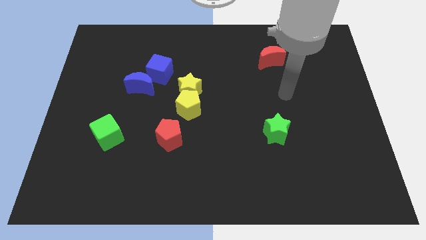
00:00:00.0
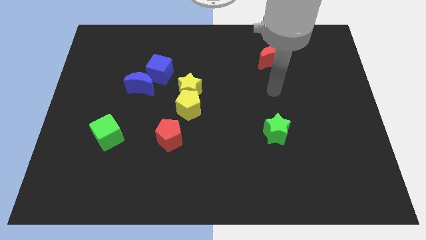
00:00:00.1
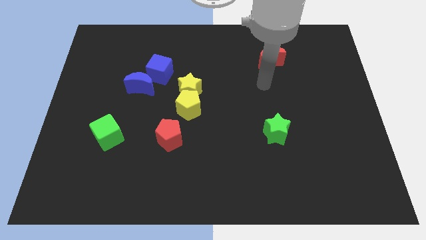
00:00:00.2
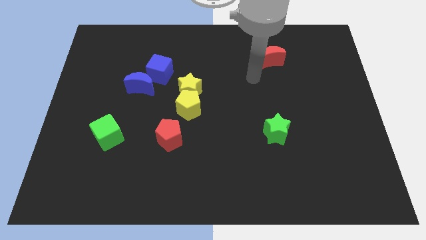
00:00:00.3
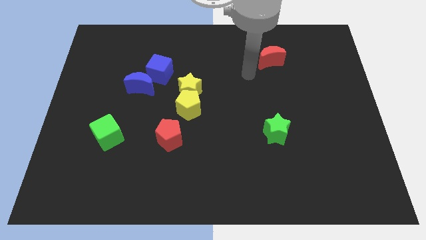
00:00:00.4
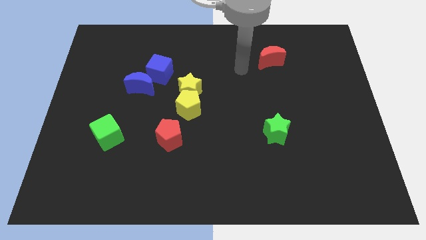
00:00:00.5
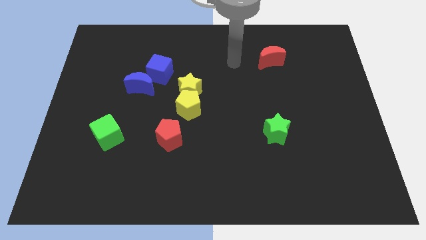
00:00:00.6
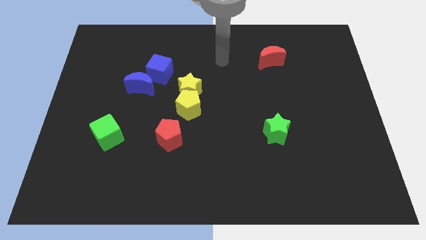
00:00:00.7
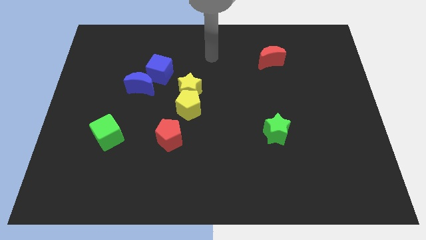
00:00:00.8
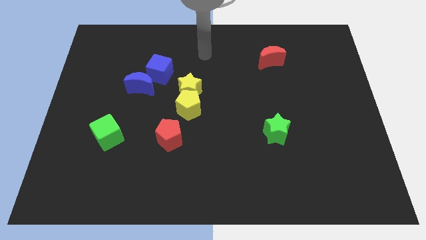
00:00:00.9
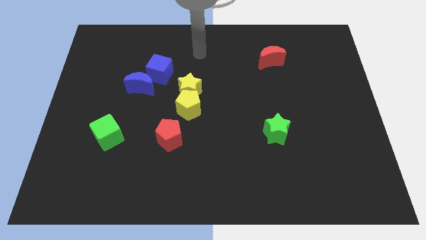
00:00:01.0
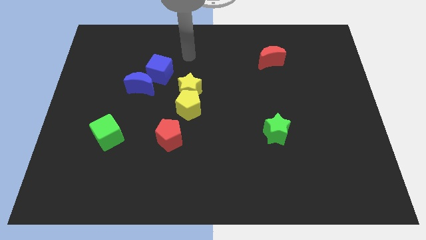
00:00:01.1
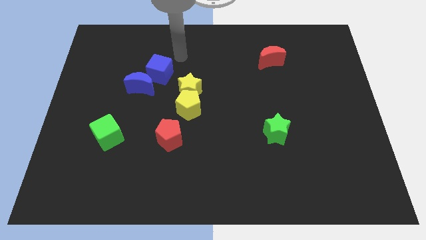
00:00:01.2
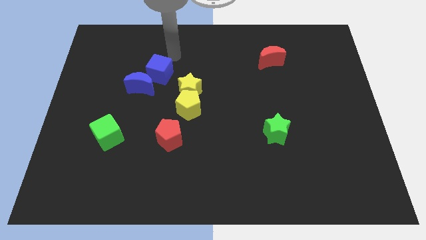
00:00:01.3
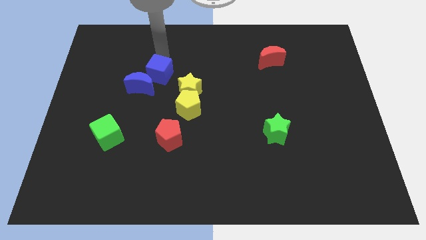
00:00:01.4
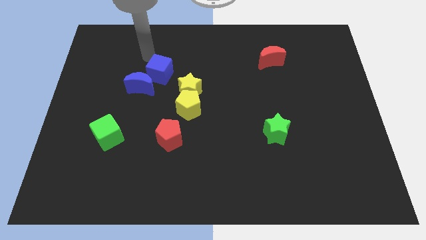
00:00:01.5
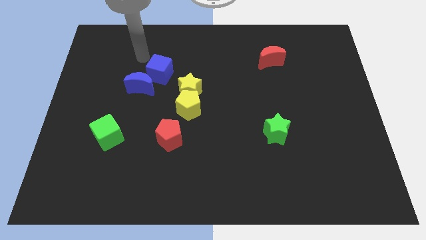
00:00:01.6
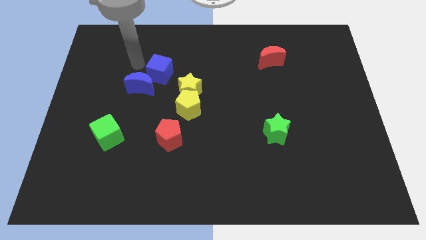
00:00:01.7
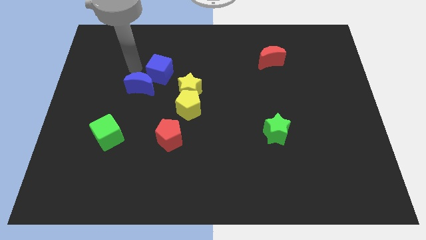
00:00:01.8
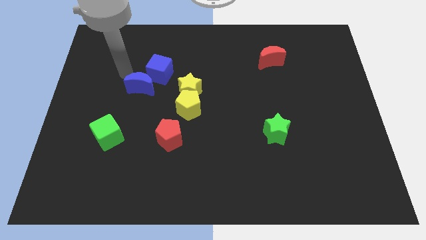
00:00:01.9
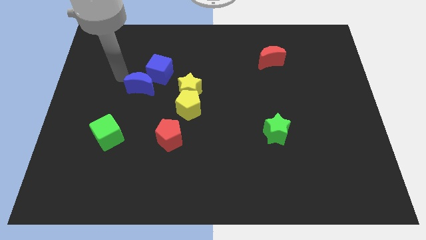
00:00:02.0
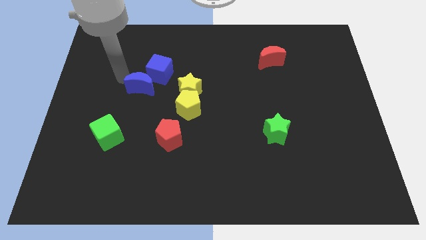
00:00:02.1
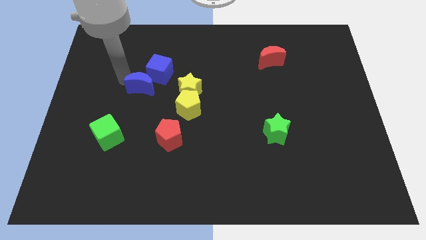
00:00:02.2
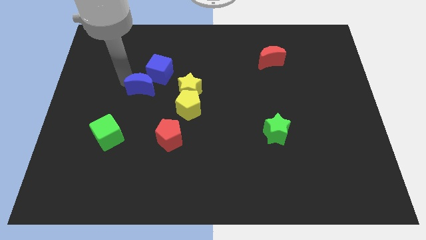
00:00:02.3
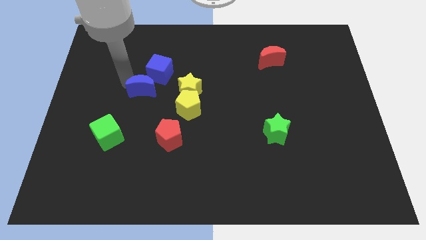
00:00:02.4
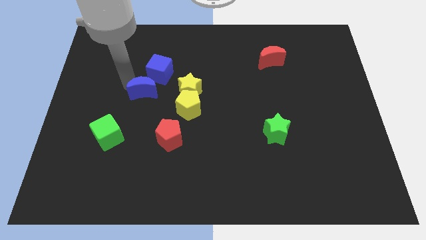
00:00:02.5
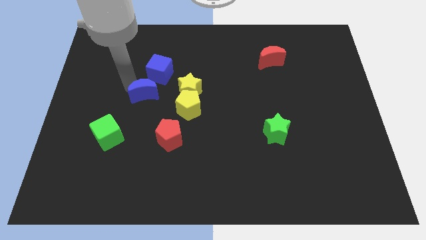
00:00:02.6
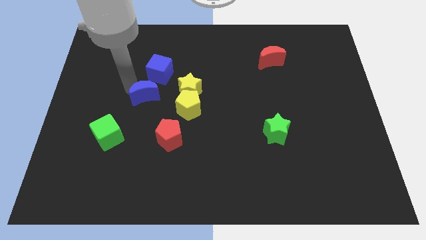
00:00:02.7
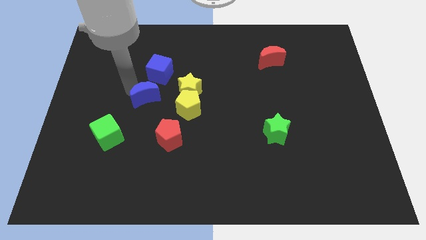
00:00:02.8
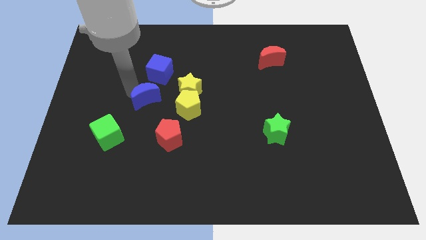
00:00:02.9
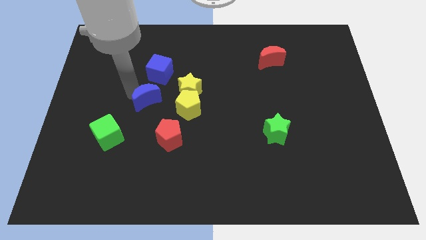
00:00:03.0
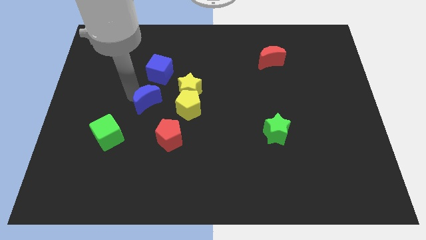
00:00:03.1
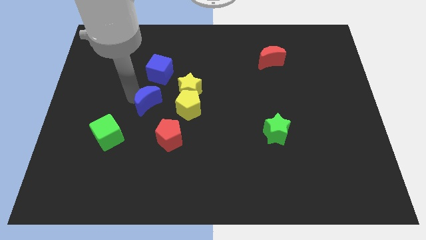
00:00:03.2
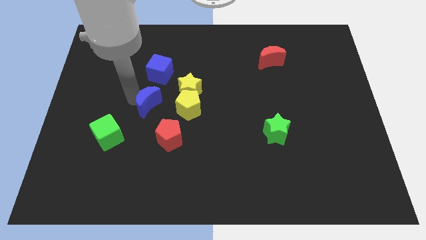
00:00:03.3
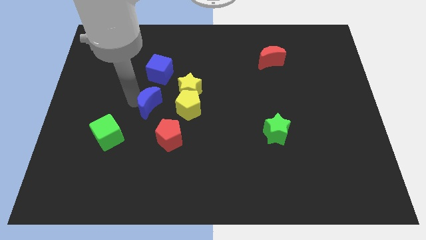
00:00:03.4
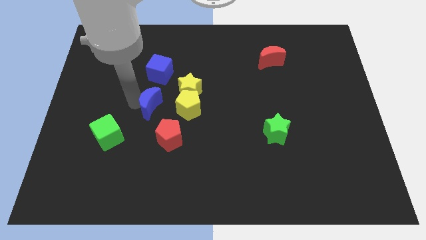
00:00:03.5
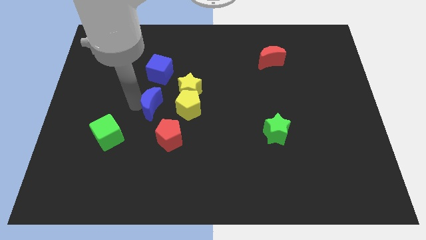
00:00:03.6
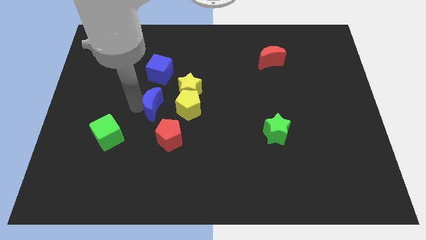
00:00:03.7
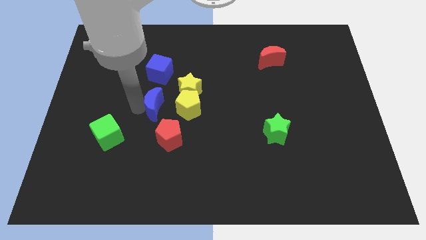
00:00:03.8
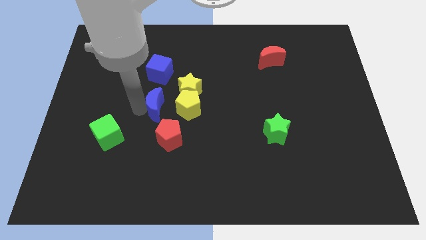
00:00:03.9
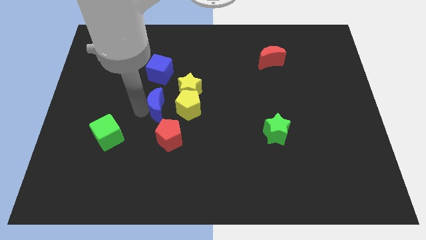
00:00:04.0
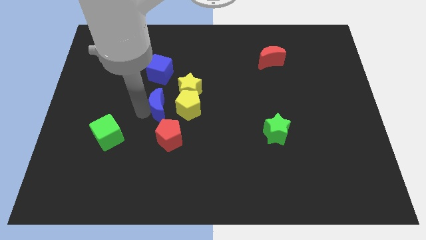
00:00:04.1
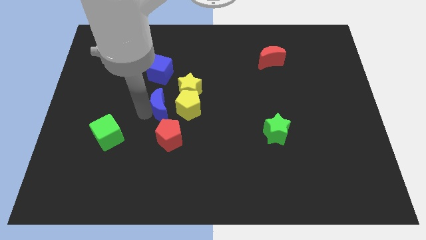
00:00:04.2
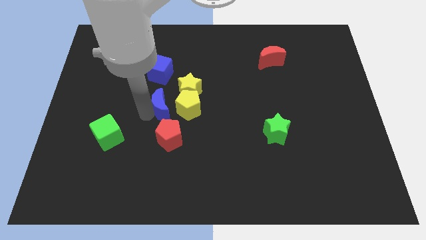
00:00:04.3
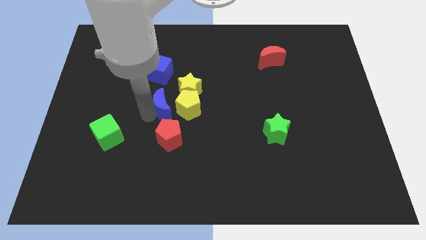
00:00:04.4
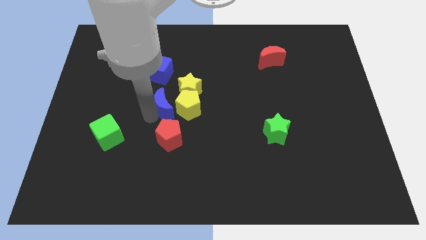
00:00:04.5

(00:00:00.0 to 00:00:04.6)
push the blue moon next to the yellow pentagon

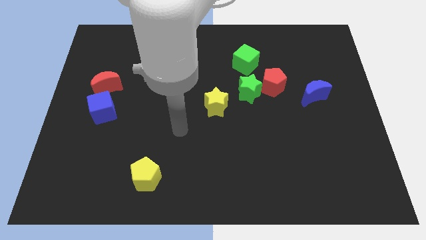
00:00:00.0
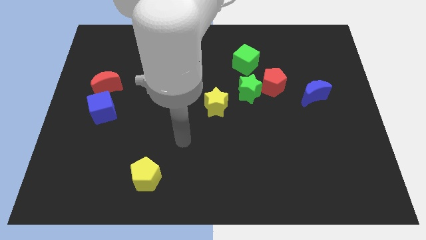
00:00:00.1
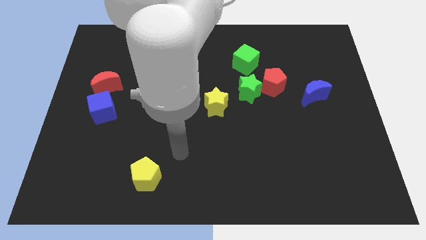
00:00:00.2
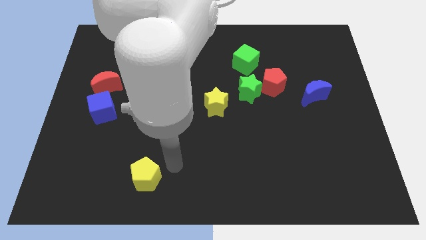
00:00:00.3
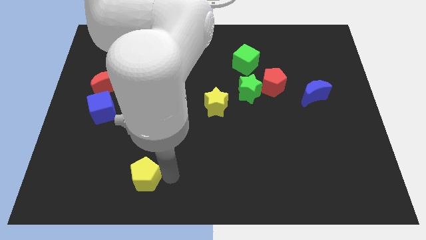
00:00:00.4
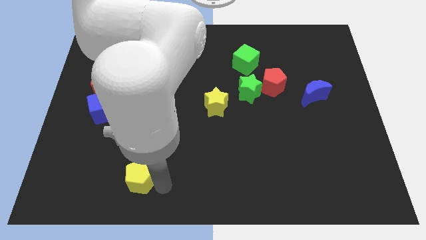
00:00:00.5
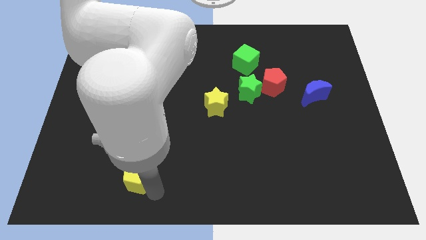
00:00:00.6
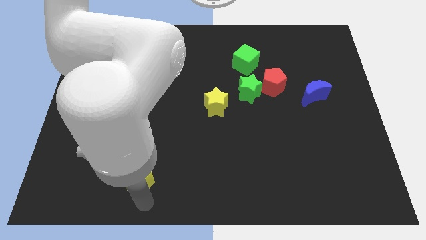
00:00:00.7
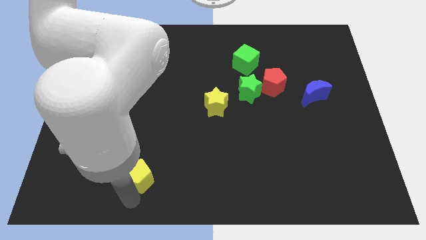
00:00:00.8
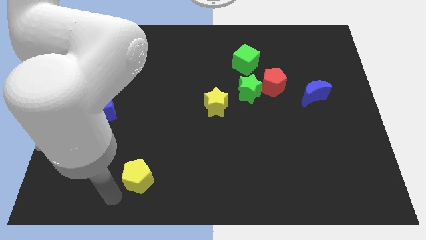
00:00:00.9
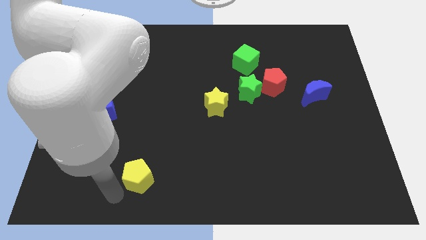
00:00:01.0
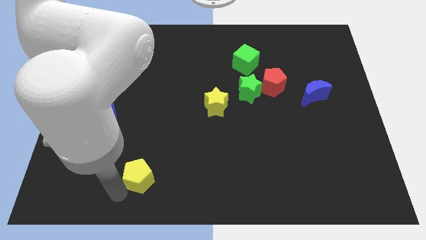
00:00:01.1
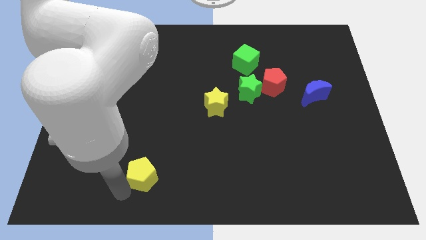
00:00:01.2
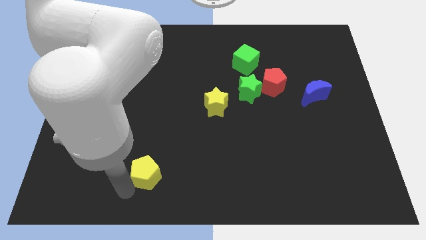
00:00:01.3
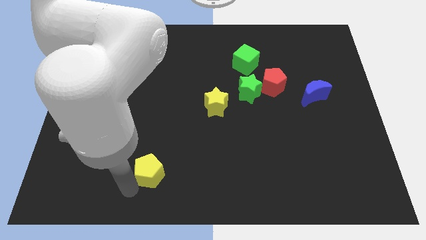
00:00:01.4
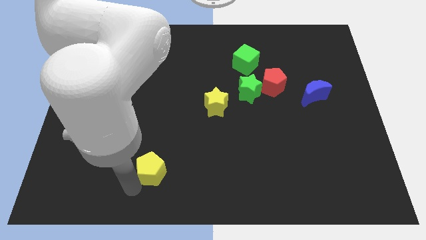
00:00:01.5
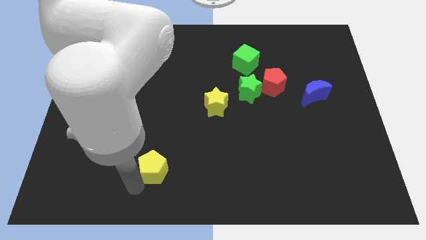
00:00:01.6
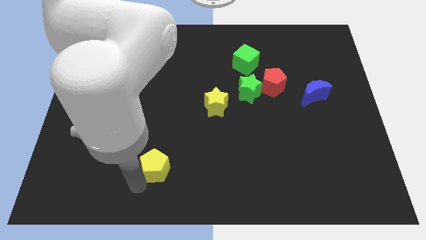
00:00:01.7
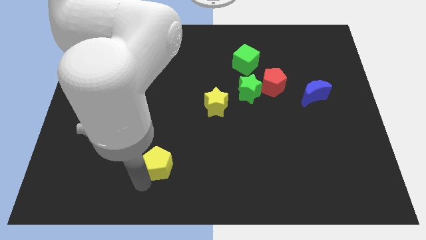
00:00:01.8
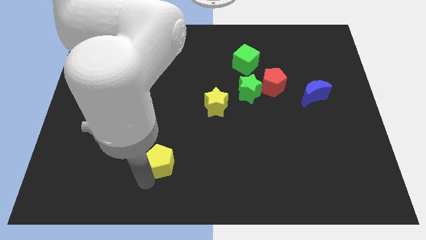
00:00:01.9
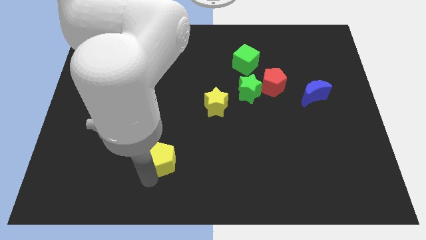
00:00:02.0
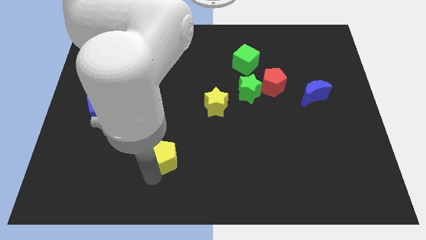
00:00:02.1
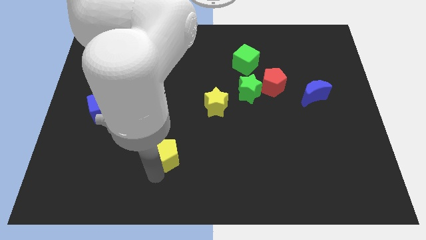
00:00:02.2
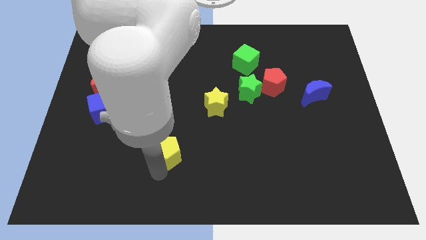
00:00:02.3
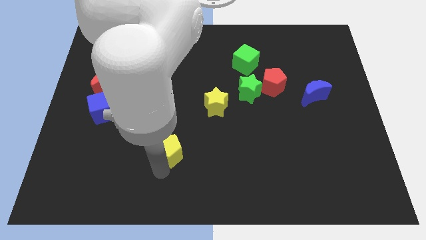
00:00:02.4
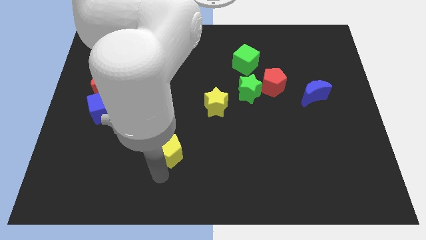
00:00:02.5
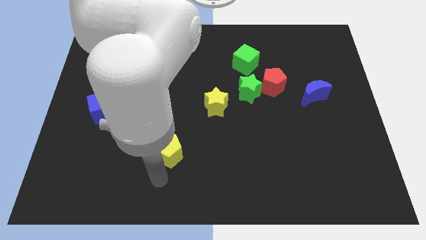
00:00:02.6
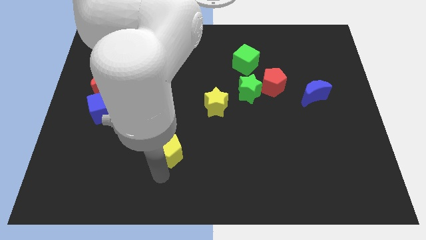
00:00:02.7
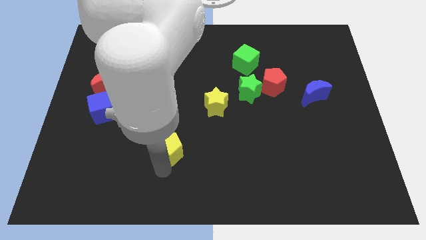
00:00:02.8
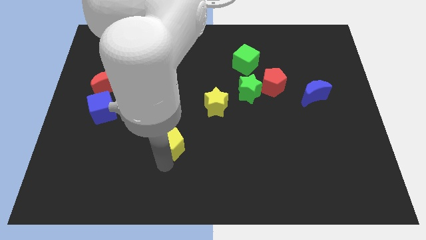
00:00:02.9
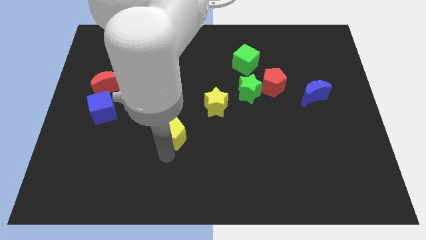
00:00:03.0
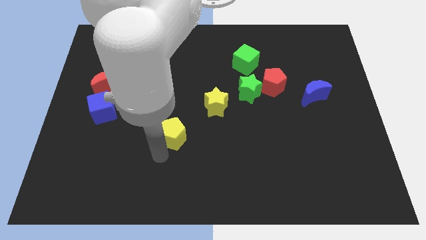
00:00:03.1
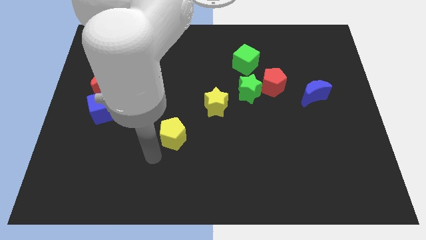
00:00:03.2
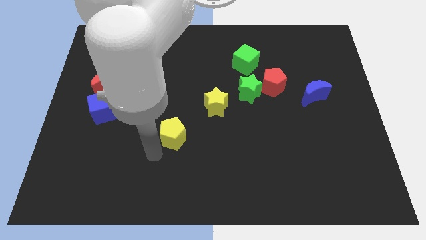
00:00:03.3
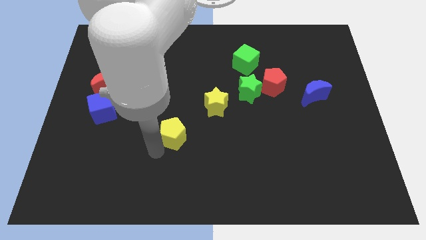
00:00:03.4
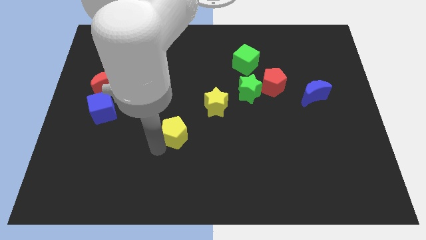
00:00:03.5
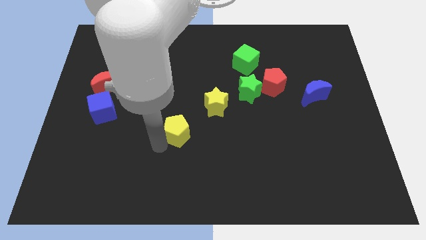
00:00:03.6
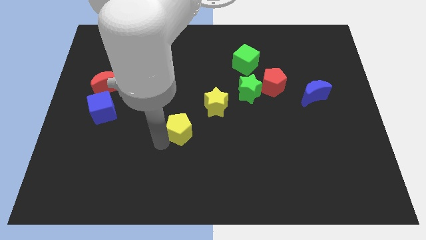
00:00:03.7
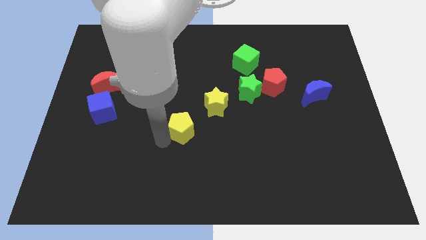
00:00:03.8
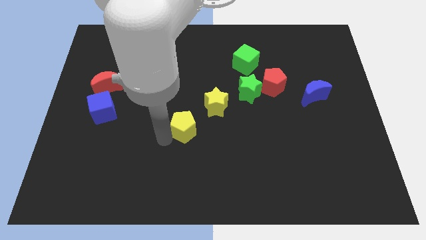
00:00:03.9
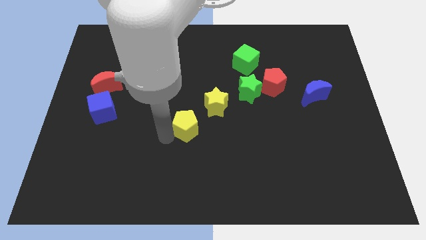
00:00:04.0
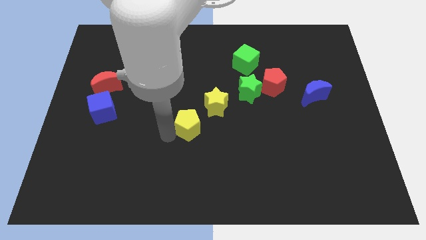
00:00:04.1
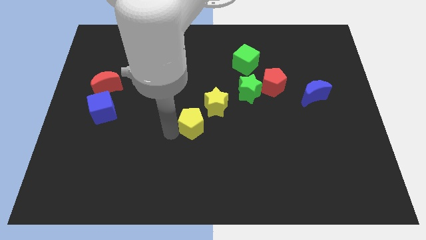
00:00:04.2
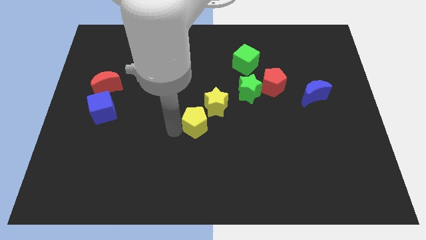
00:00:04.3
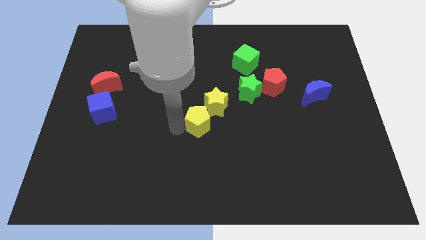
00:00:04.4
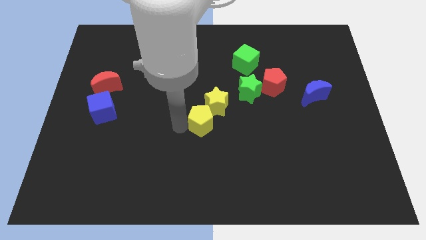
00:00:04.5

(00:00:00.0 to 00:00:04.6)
put the yellow pentagon to the yellow star
